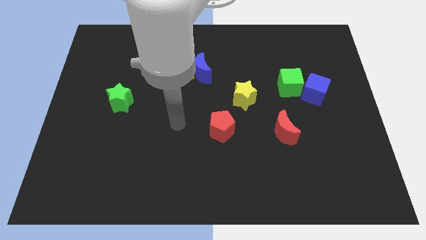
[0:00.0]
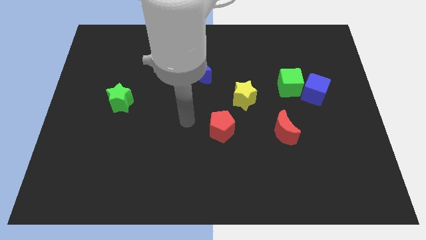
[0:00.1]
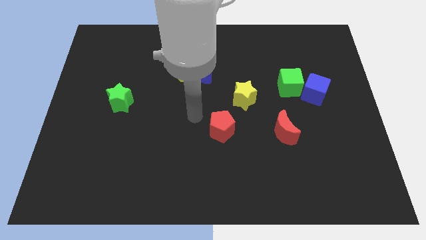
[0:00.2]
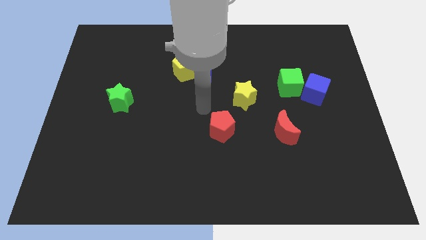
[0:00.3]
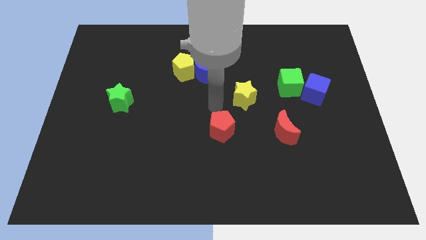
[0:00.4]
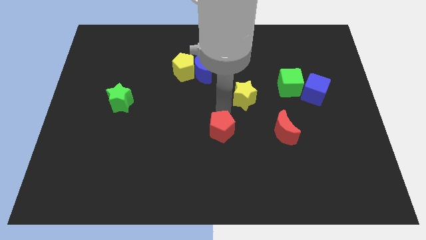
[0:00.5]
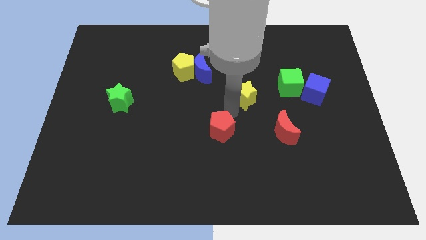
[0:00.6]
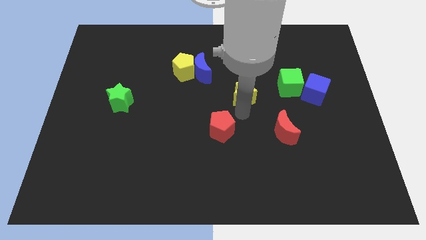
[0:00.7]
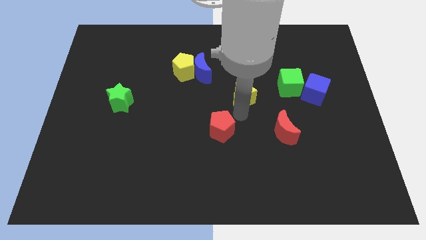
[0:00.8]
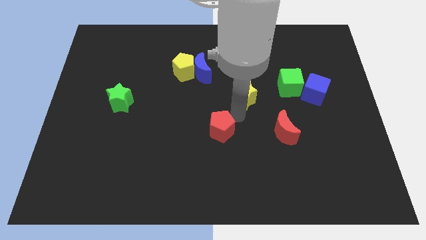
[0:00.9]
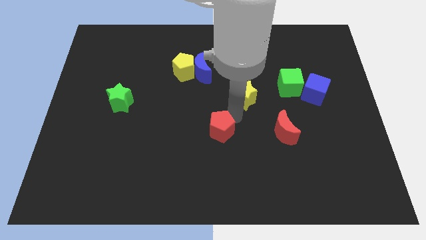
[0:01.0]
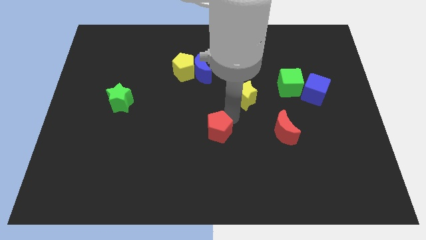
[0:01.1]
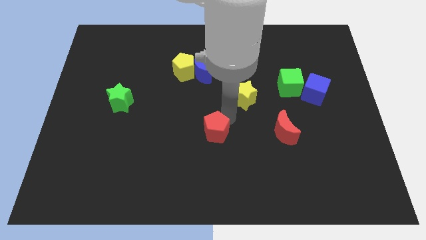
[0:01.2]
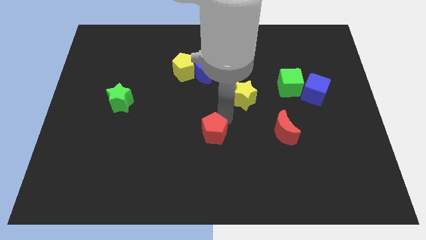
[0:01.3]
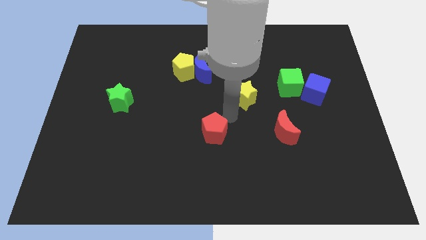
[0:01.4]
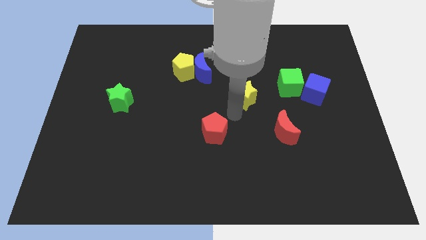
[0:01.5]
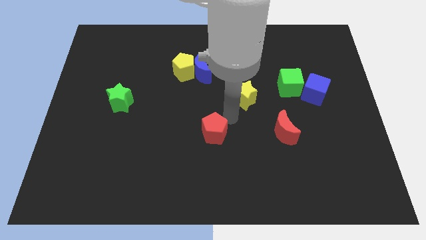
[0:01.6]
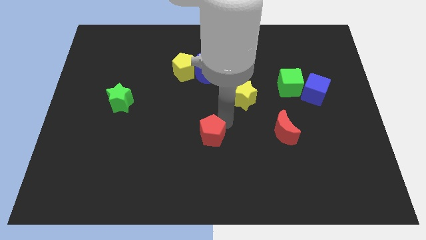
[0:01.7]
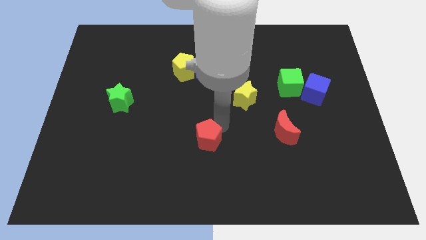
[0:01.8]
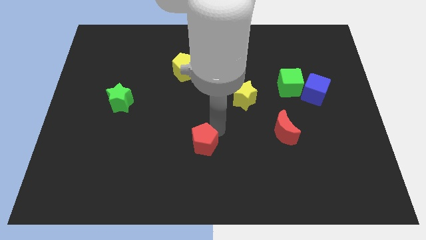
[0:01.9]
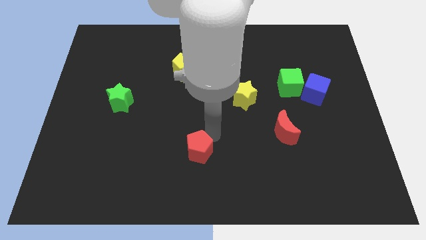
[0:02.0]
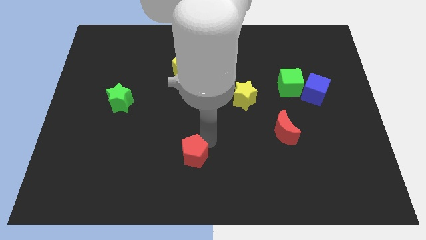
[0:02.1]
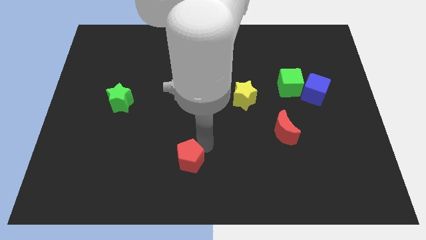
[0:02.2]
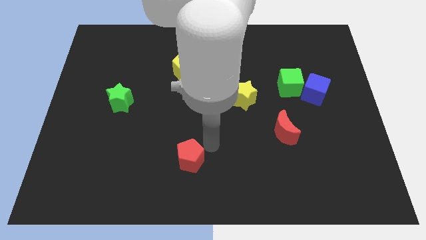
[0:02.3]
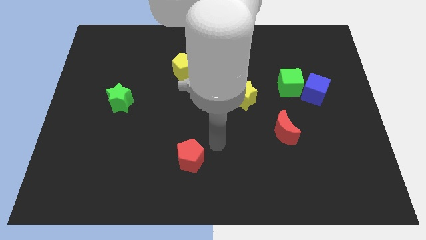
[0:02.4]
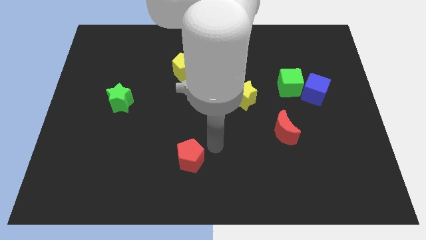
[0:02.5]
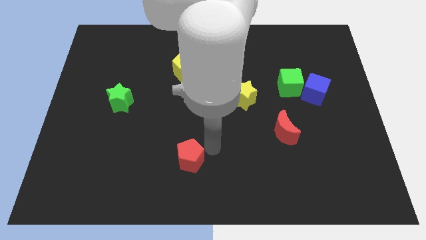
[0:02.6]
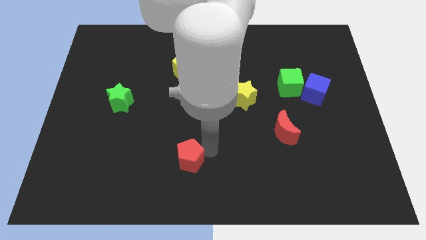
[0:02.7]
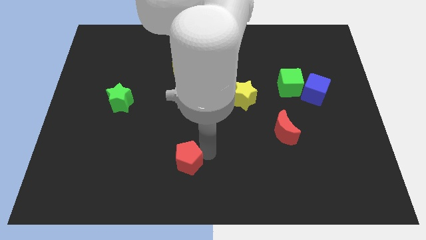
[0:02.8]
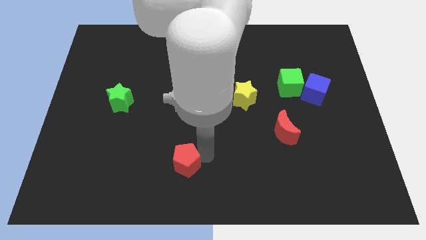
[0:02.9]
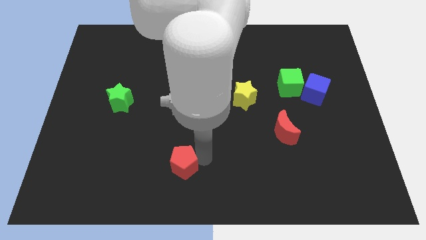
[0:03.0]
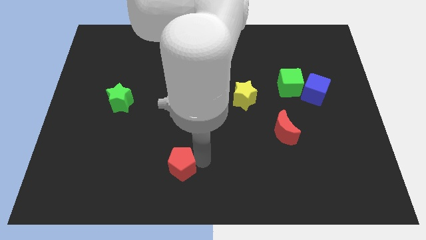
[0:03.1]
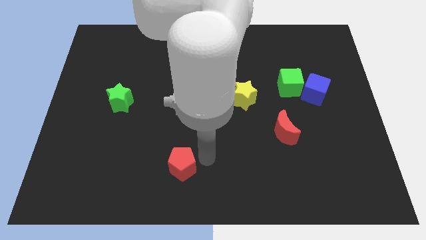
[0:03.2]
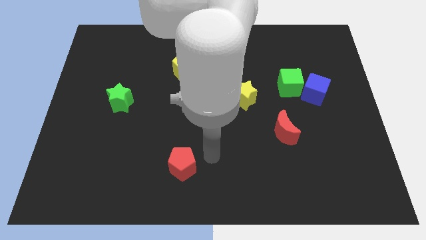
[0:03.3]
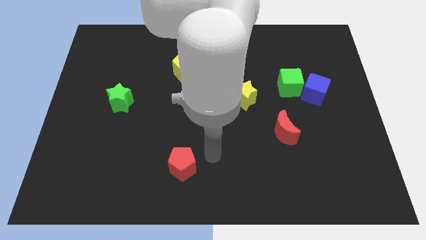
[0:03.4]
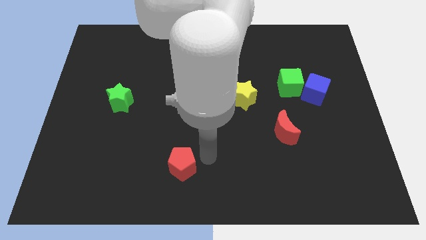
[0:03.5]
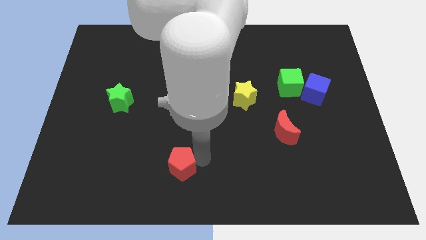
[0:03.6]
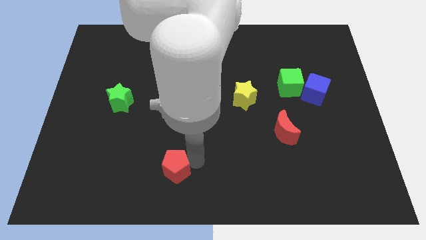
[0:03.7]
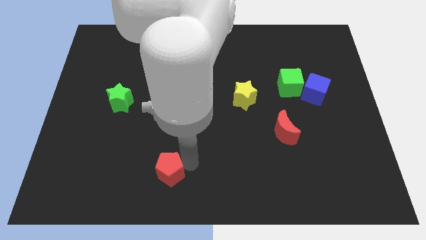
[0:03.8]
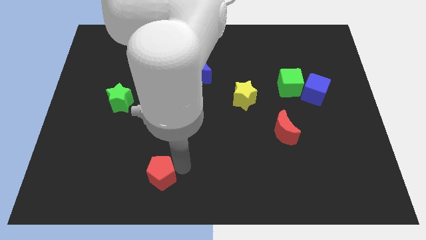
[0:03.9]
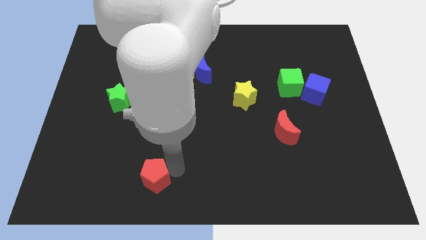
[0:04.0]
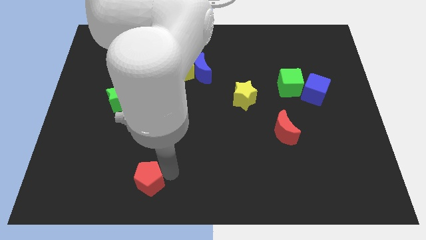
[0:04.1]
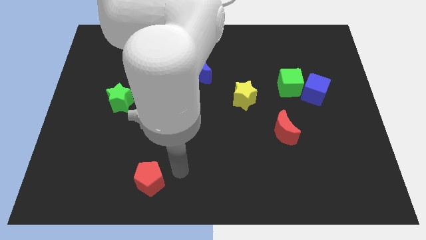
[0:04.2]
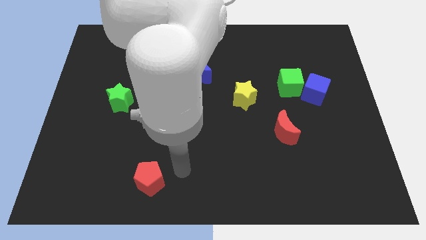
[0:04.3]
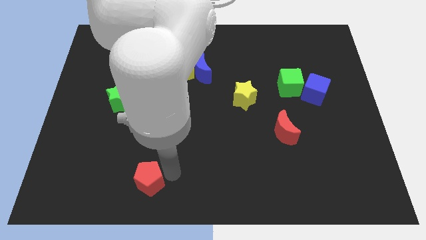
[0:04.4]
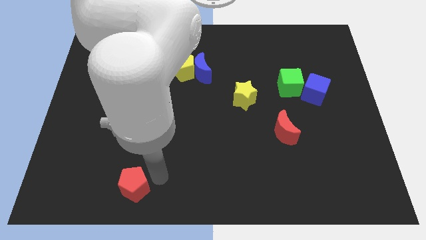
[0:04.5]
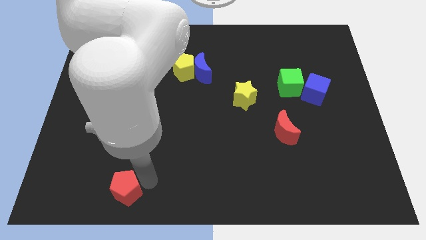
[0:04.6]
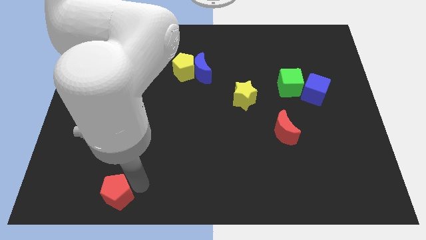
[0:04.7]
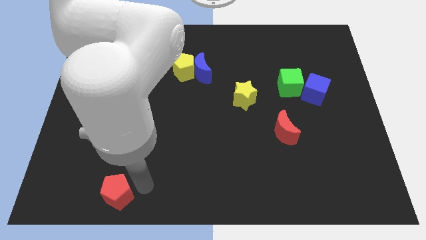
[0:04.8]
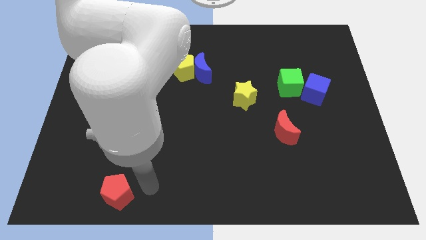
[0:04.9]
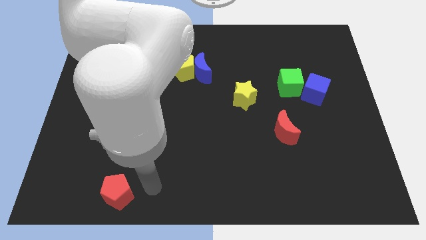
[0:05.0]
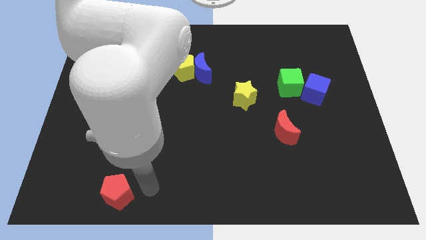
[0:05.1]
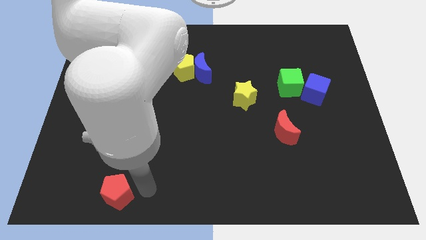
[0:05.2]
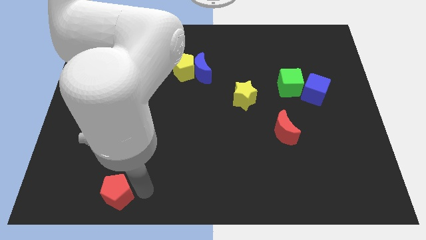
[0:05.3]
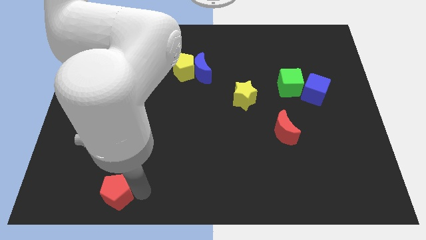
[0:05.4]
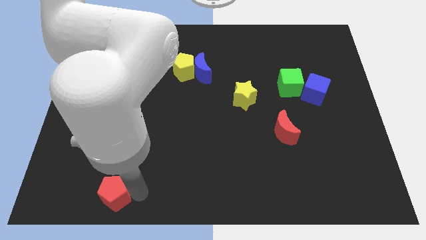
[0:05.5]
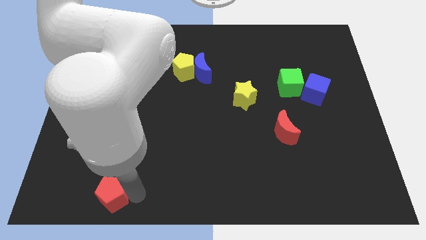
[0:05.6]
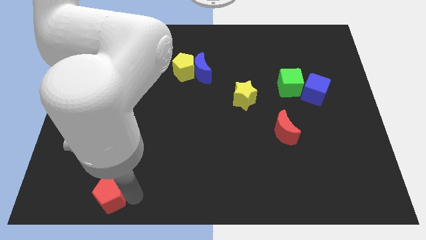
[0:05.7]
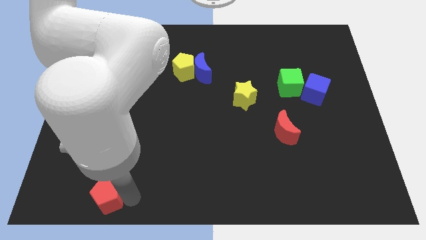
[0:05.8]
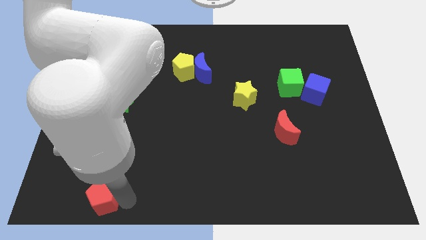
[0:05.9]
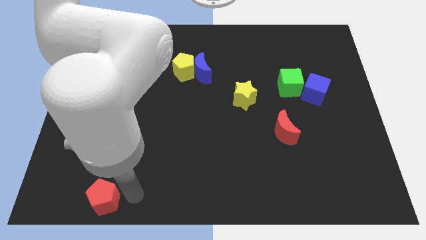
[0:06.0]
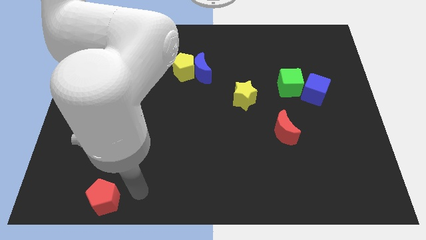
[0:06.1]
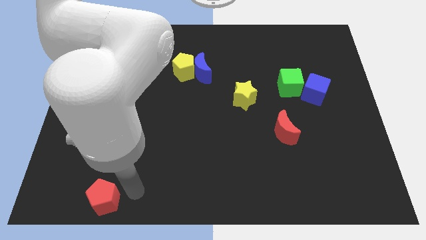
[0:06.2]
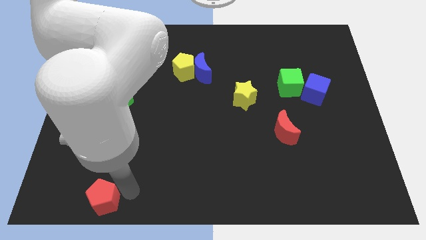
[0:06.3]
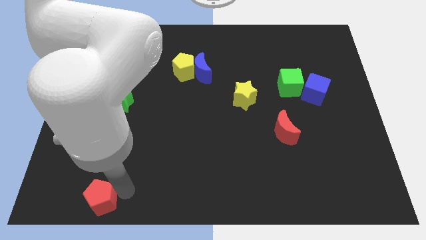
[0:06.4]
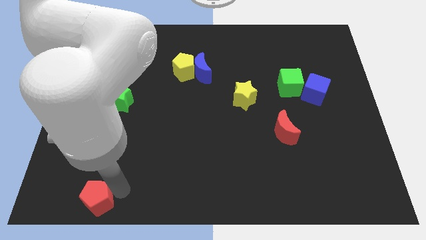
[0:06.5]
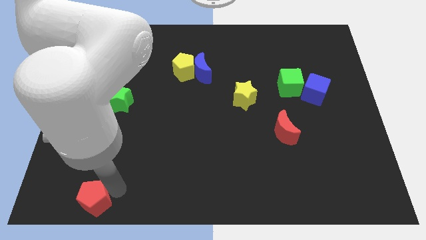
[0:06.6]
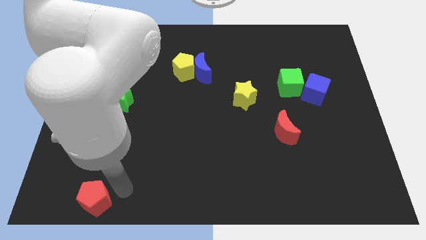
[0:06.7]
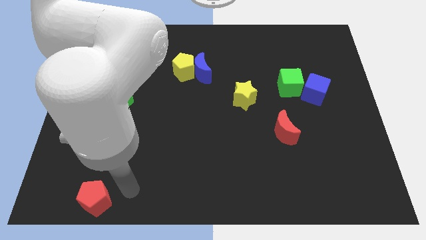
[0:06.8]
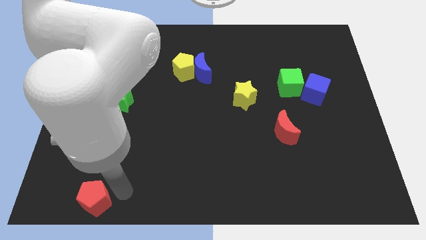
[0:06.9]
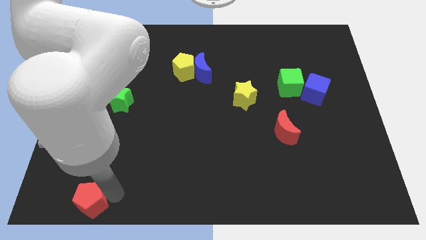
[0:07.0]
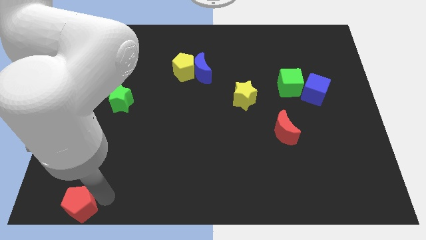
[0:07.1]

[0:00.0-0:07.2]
push the red pentagon to the lower left corner
